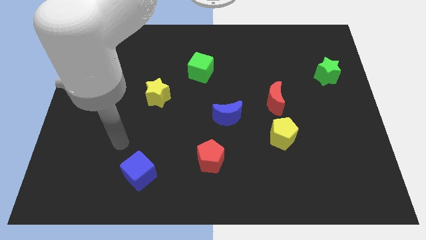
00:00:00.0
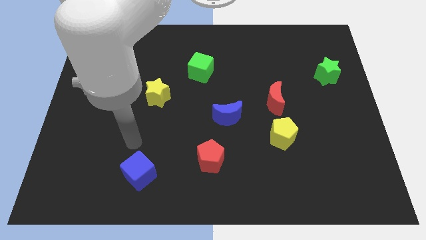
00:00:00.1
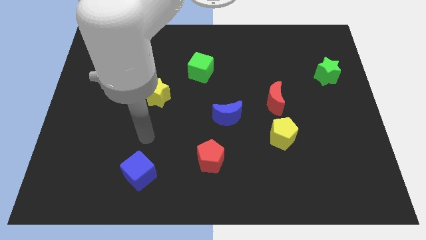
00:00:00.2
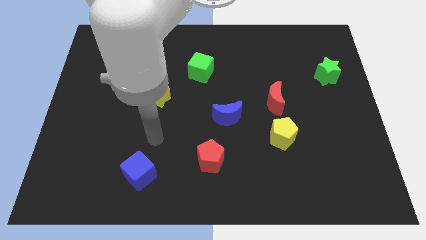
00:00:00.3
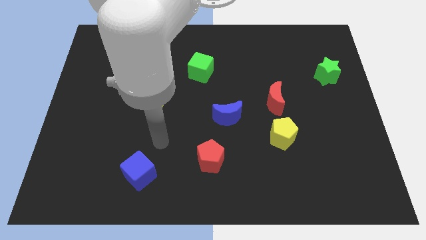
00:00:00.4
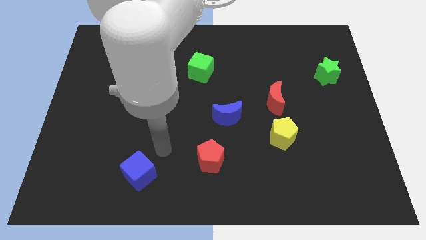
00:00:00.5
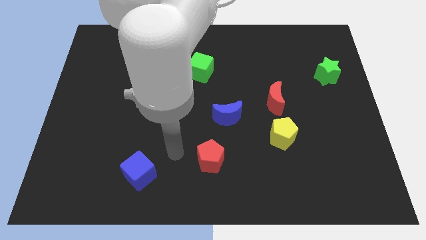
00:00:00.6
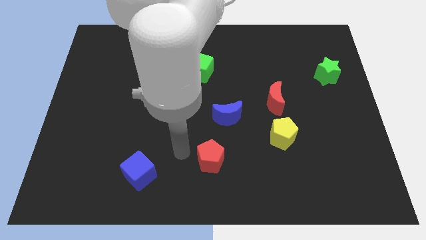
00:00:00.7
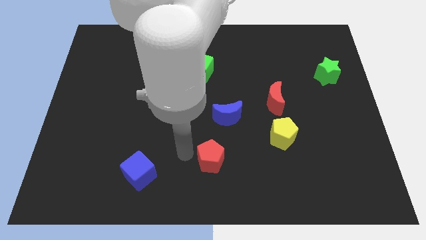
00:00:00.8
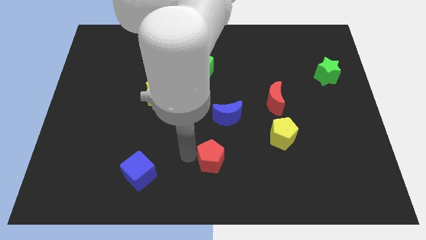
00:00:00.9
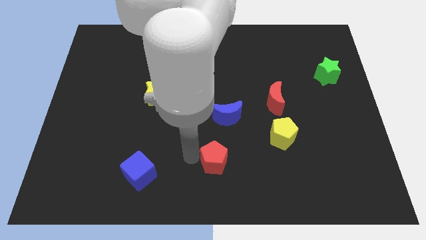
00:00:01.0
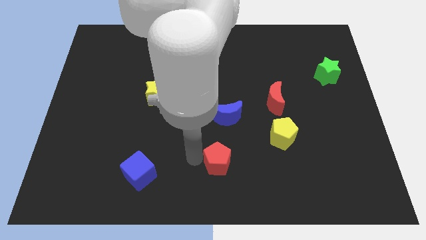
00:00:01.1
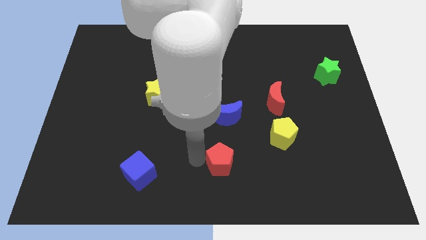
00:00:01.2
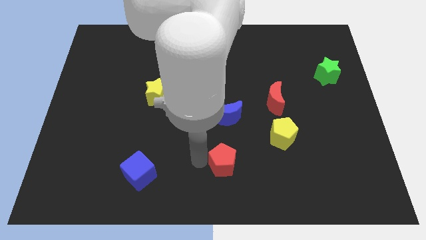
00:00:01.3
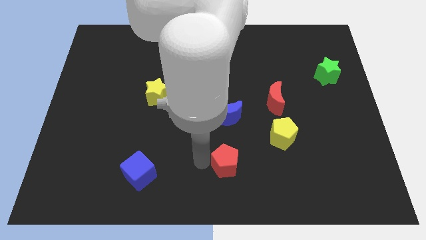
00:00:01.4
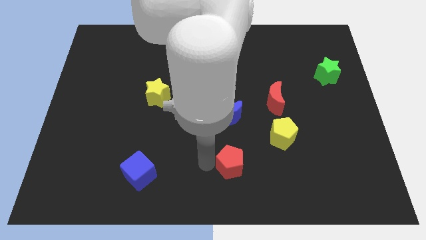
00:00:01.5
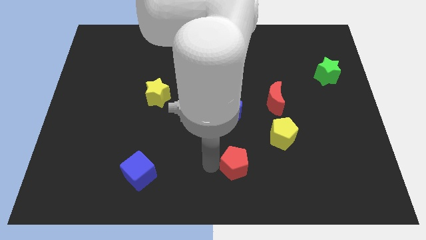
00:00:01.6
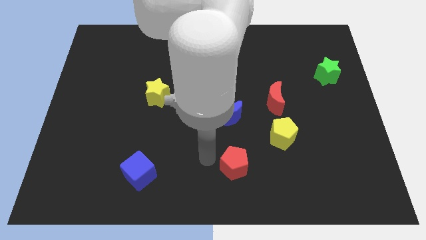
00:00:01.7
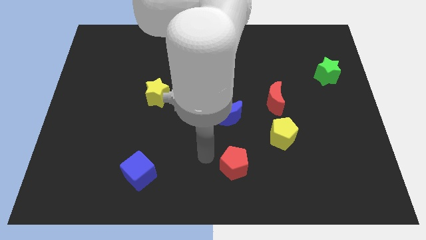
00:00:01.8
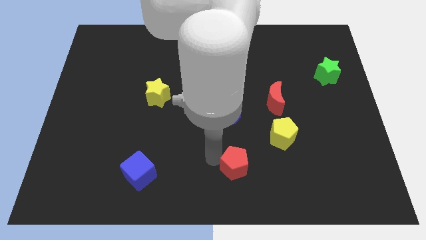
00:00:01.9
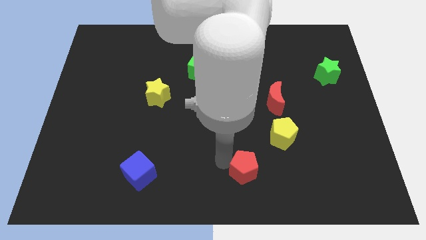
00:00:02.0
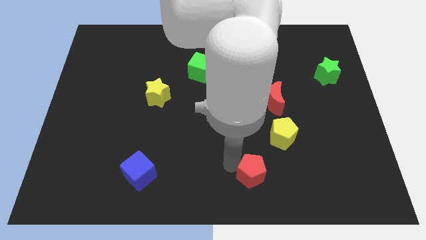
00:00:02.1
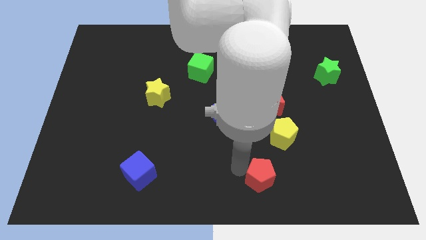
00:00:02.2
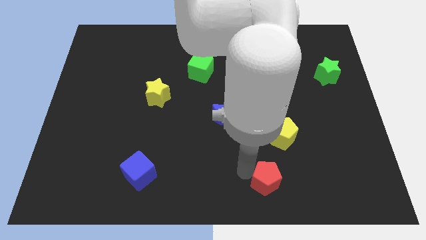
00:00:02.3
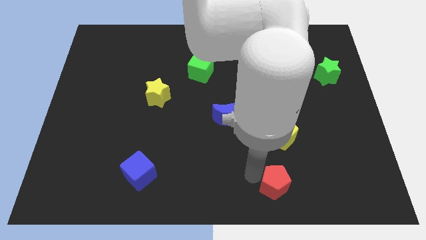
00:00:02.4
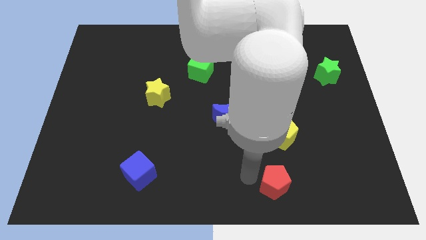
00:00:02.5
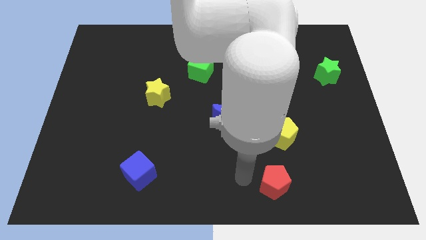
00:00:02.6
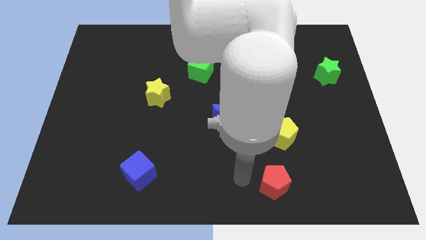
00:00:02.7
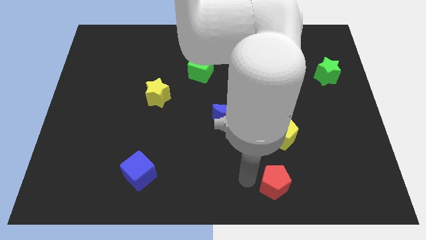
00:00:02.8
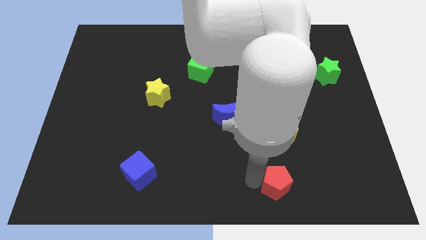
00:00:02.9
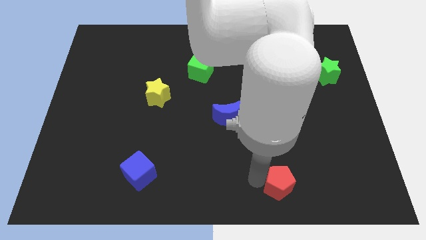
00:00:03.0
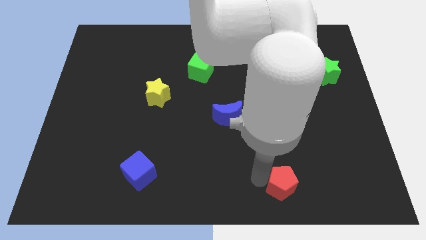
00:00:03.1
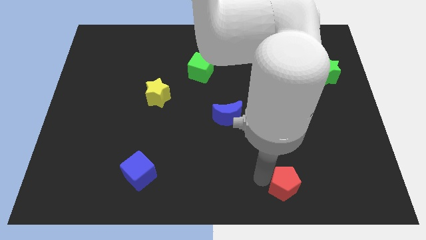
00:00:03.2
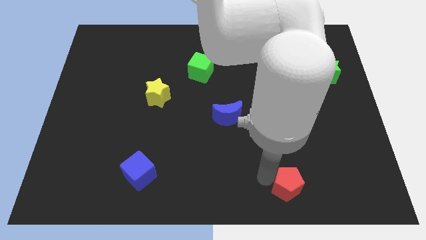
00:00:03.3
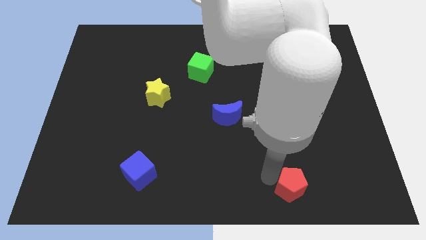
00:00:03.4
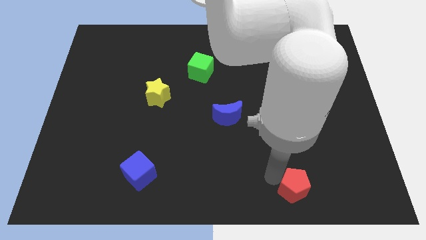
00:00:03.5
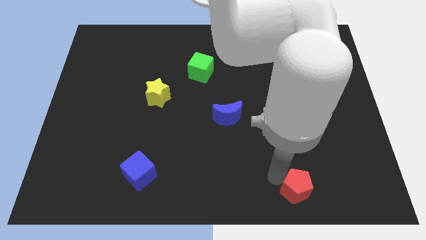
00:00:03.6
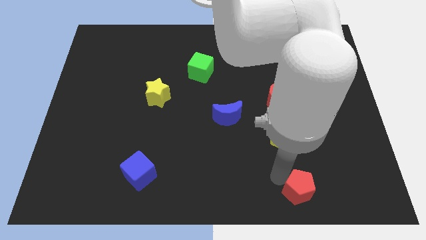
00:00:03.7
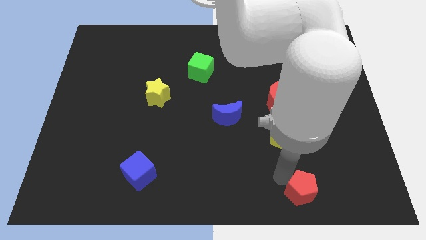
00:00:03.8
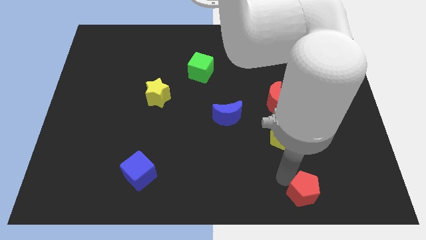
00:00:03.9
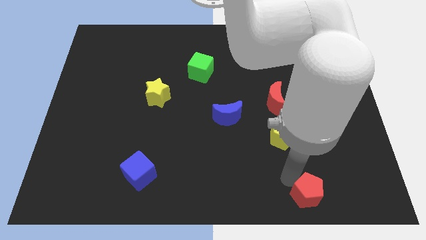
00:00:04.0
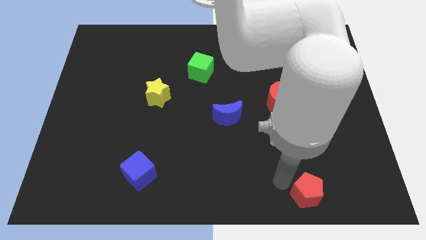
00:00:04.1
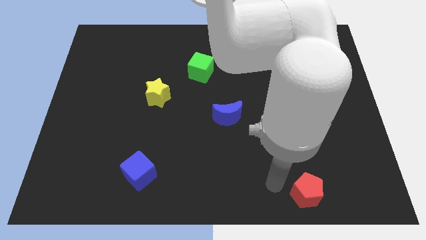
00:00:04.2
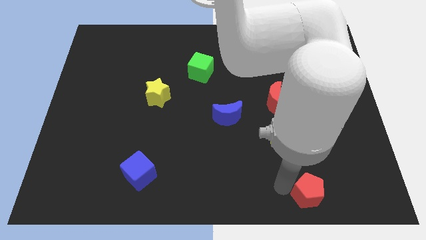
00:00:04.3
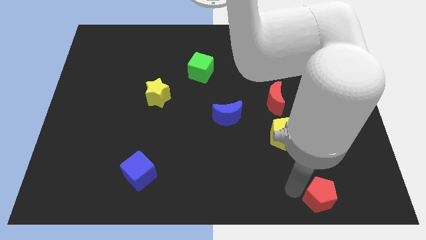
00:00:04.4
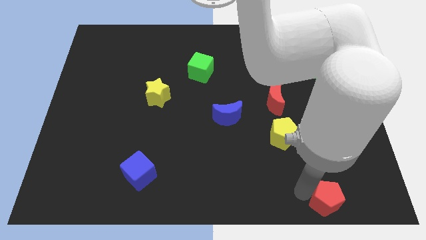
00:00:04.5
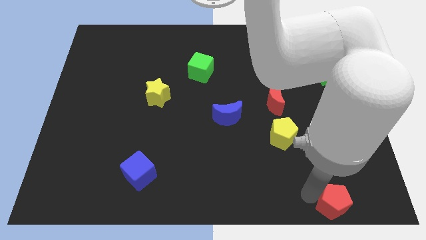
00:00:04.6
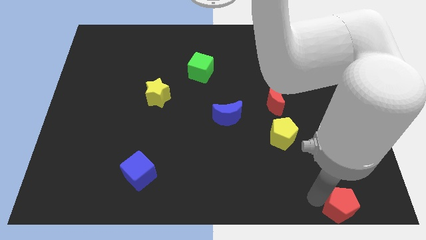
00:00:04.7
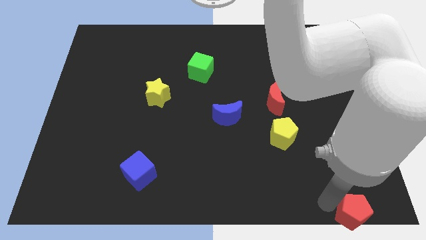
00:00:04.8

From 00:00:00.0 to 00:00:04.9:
move the red pentagon to the lower right corner

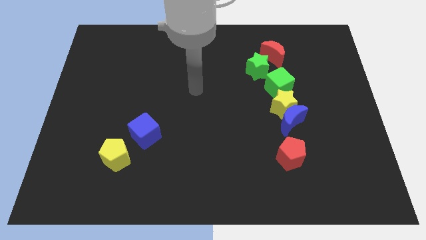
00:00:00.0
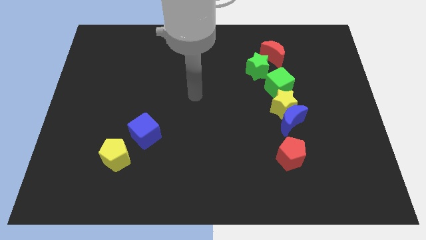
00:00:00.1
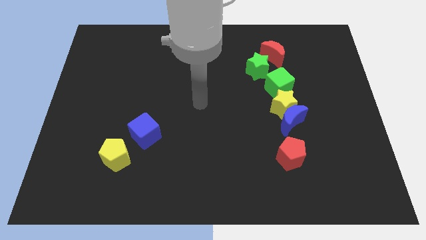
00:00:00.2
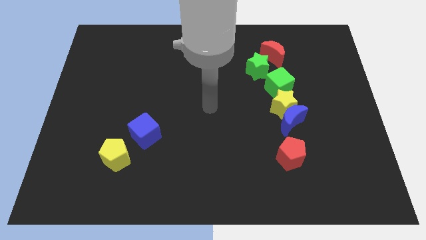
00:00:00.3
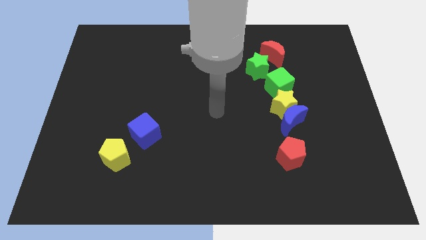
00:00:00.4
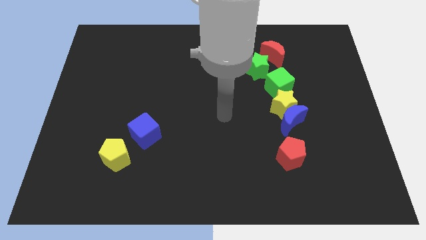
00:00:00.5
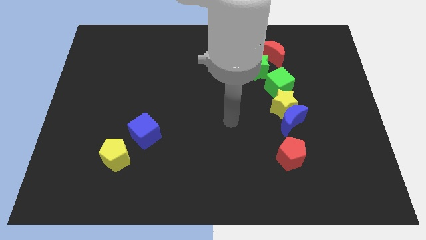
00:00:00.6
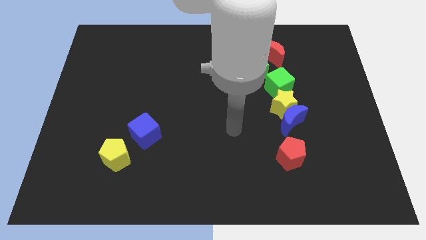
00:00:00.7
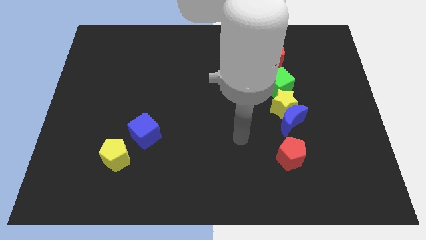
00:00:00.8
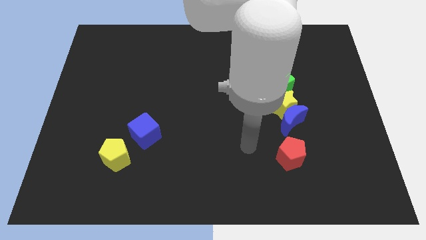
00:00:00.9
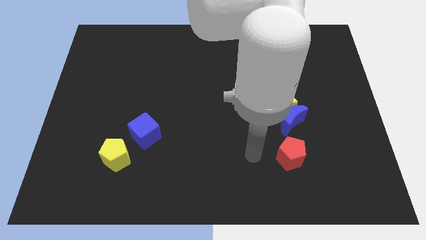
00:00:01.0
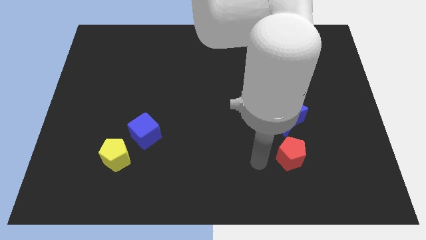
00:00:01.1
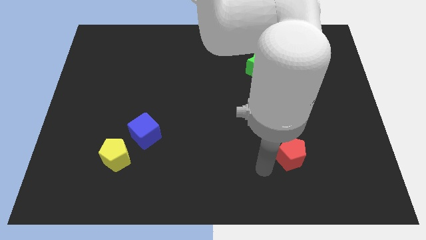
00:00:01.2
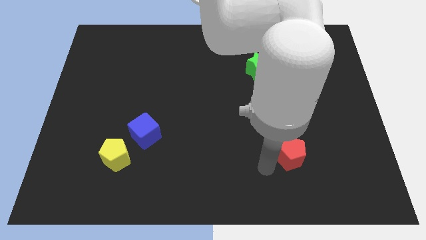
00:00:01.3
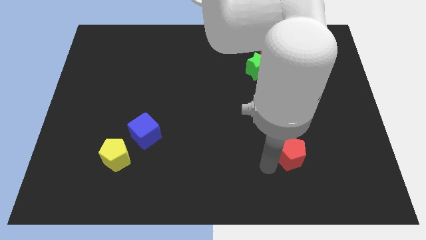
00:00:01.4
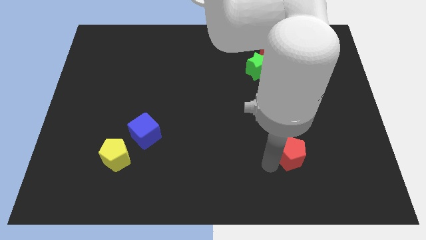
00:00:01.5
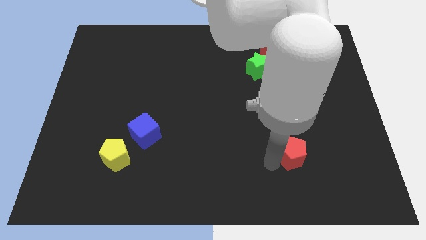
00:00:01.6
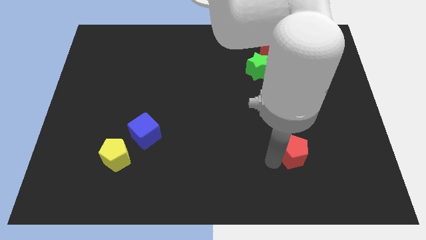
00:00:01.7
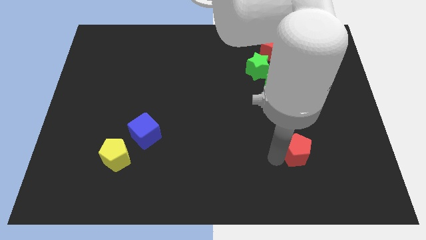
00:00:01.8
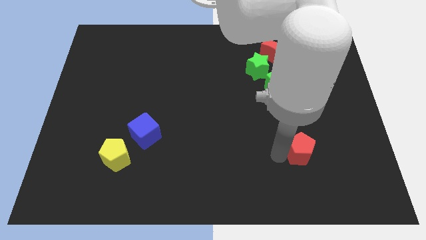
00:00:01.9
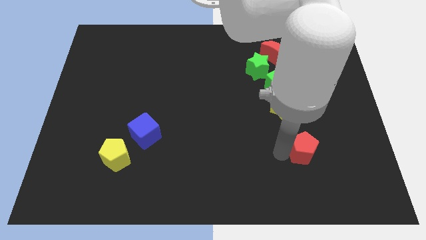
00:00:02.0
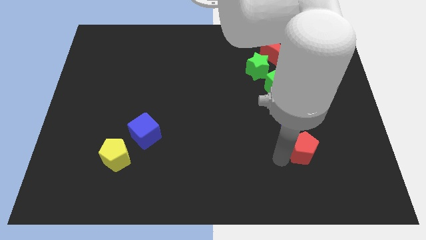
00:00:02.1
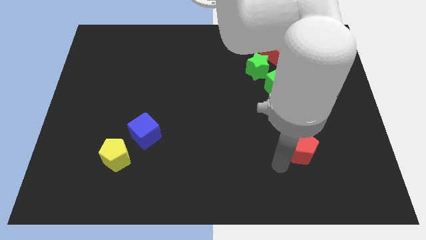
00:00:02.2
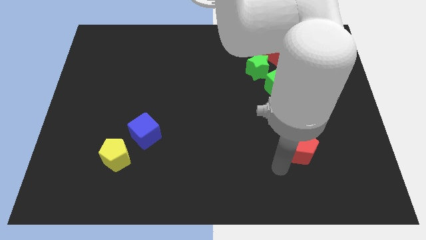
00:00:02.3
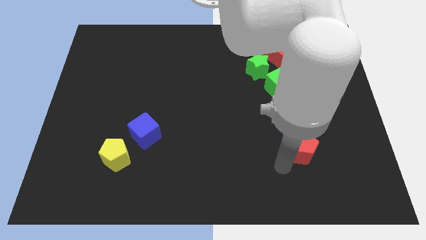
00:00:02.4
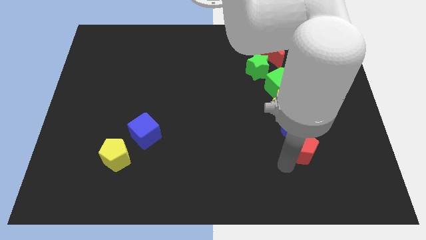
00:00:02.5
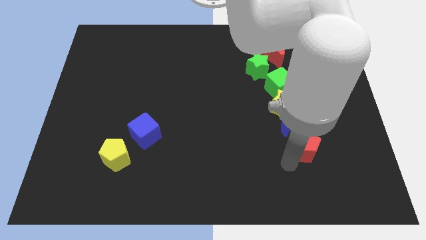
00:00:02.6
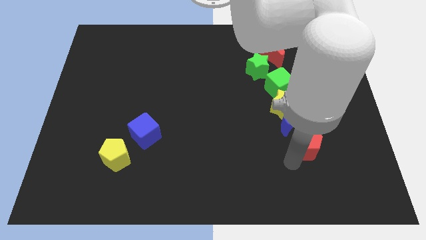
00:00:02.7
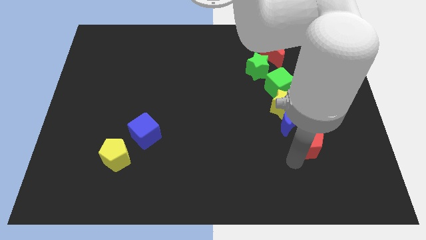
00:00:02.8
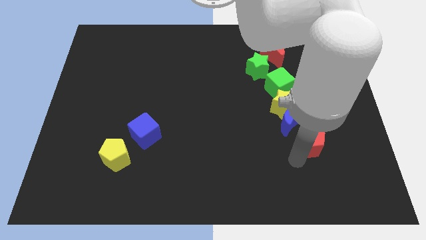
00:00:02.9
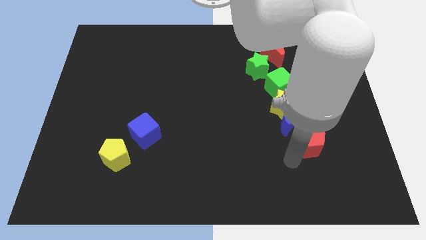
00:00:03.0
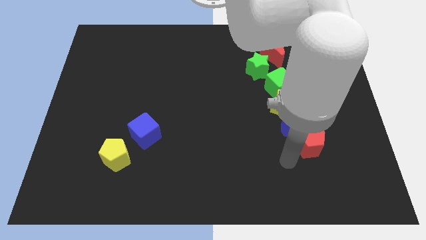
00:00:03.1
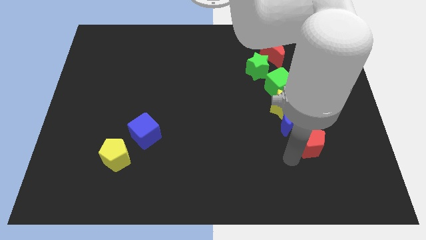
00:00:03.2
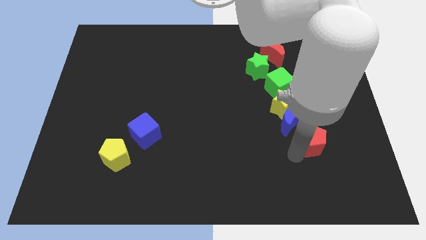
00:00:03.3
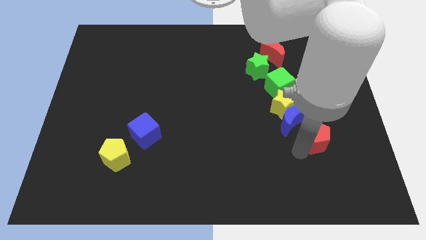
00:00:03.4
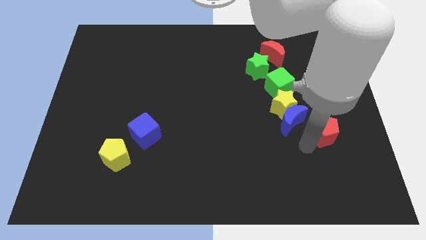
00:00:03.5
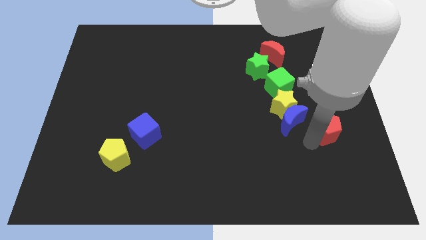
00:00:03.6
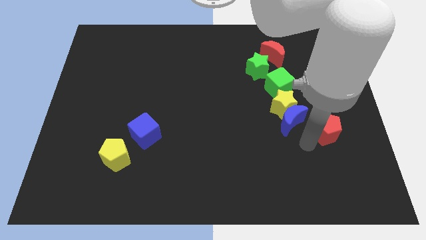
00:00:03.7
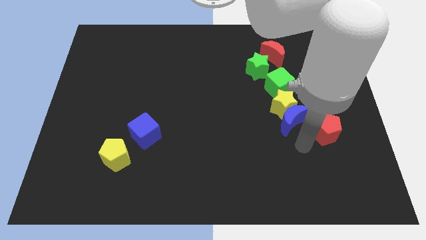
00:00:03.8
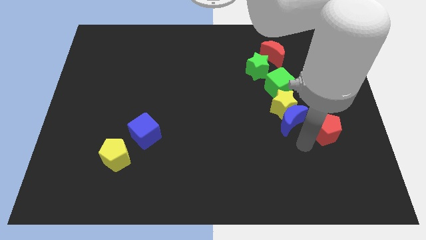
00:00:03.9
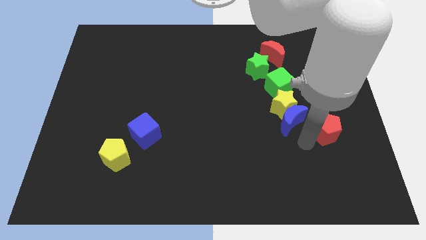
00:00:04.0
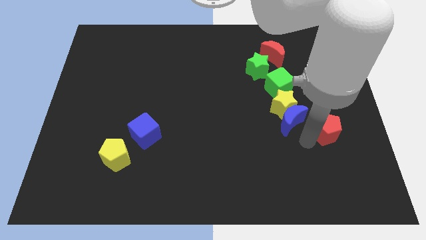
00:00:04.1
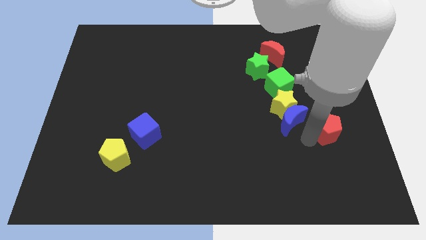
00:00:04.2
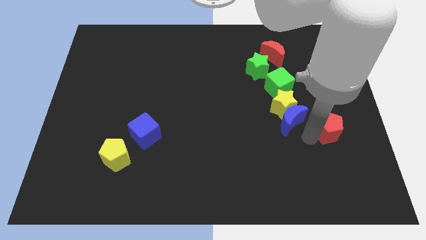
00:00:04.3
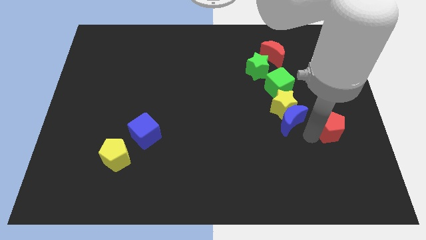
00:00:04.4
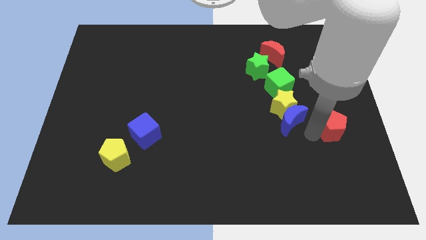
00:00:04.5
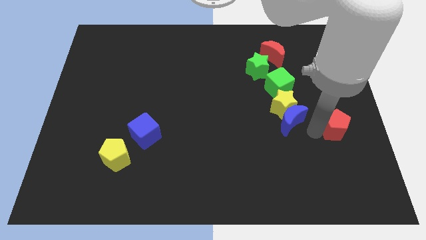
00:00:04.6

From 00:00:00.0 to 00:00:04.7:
put the red pentagon to the right side
